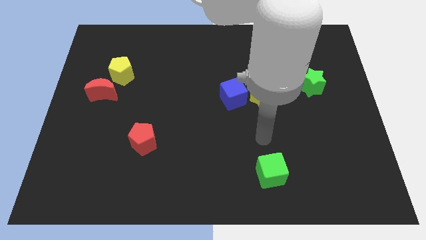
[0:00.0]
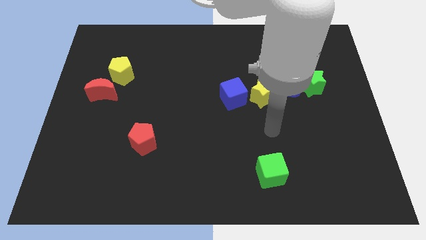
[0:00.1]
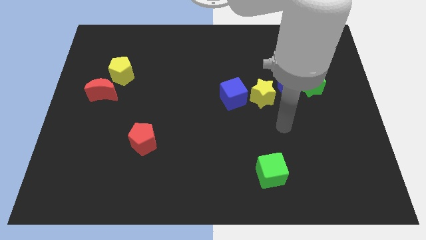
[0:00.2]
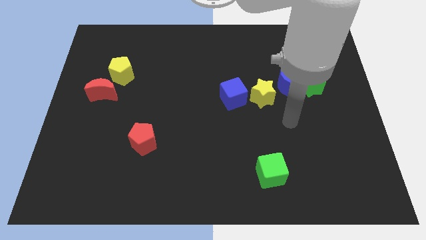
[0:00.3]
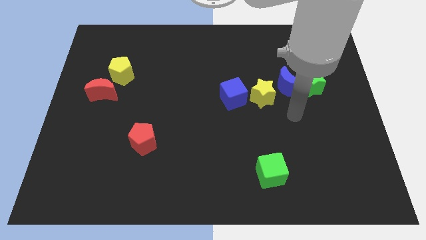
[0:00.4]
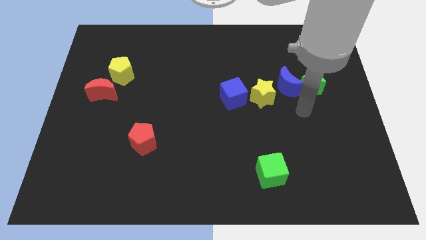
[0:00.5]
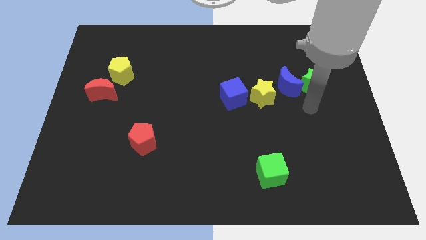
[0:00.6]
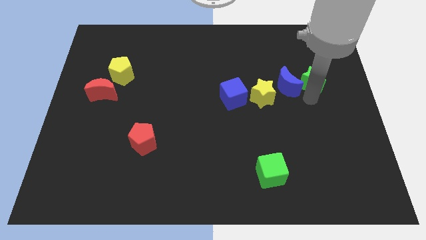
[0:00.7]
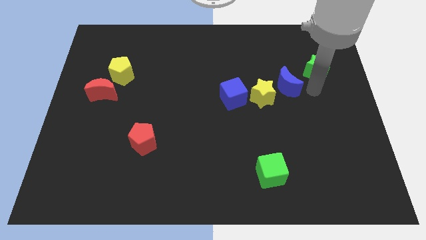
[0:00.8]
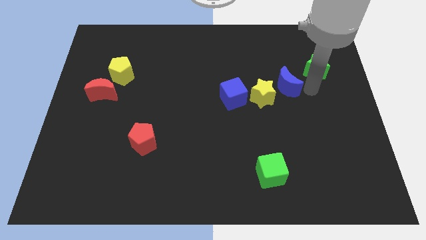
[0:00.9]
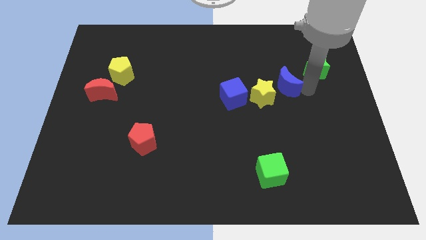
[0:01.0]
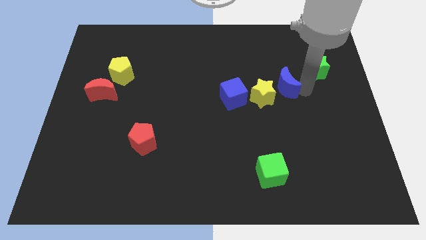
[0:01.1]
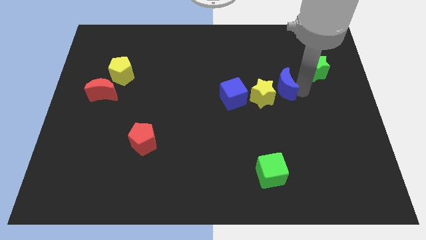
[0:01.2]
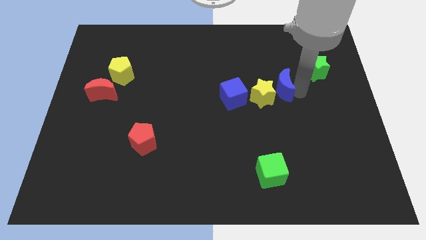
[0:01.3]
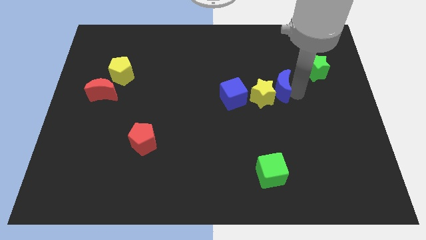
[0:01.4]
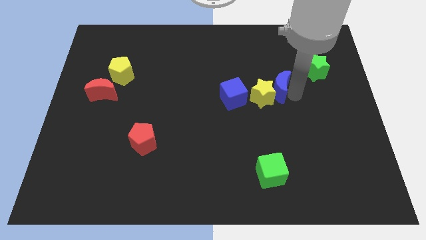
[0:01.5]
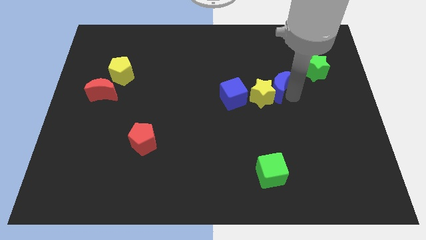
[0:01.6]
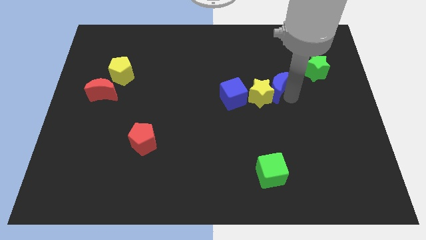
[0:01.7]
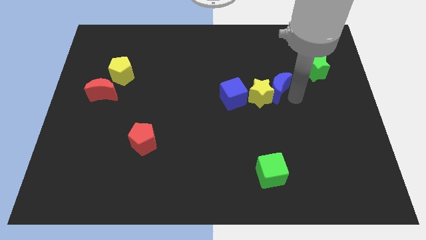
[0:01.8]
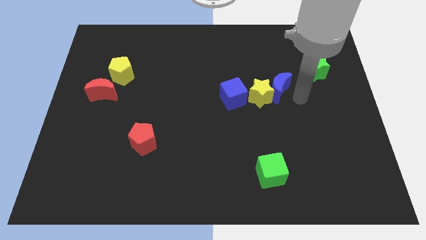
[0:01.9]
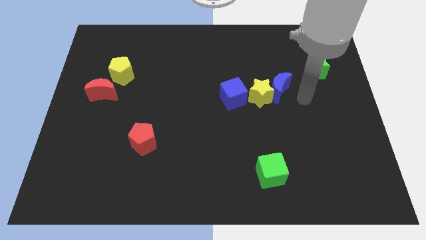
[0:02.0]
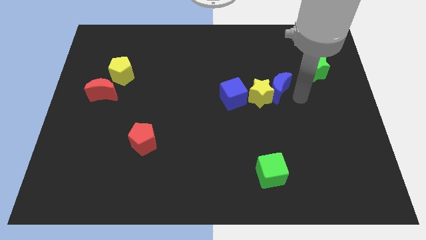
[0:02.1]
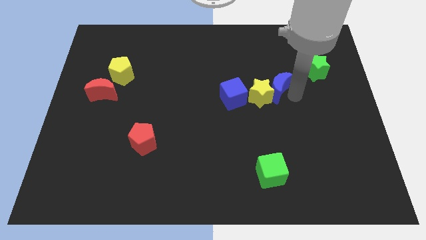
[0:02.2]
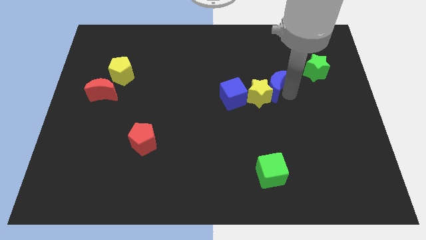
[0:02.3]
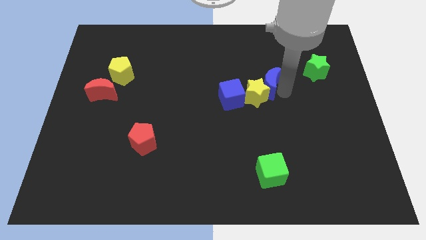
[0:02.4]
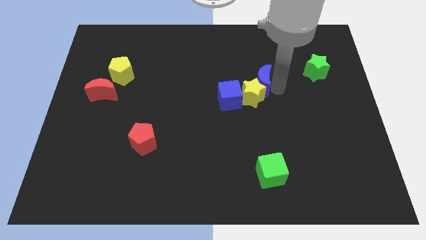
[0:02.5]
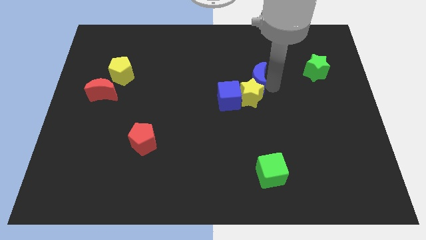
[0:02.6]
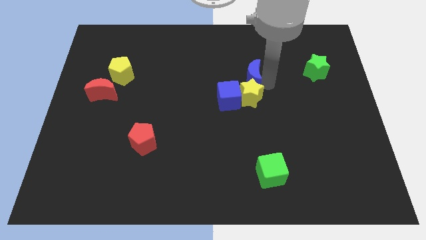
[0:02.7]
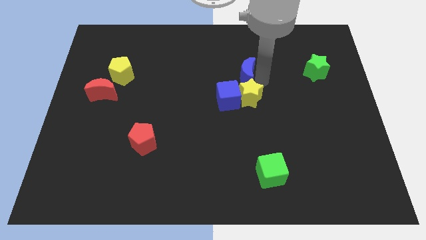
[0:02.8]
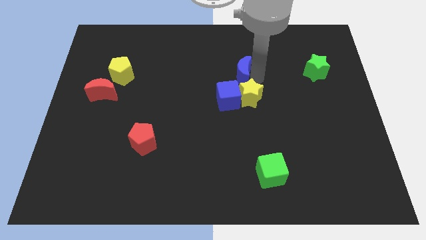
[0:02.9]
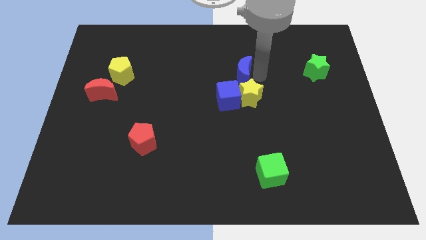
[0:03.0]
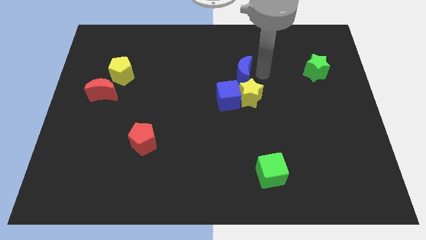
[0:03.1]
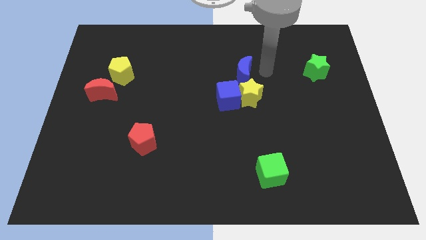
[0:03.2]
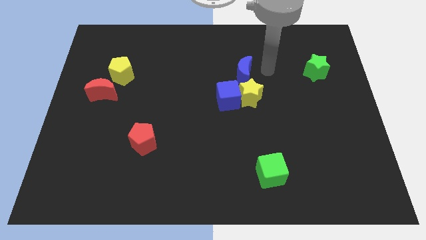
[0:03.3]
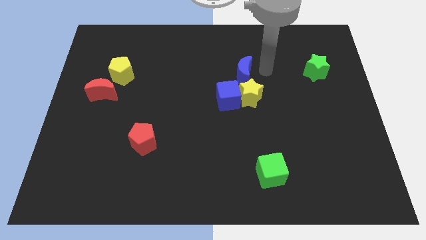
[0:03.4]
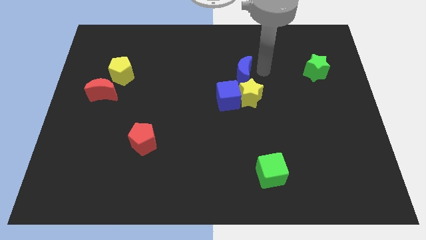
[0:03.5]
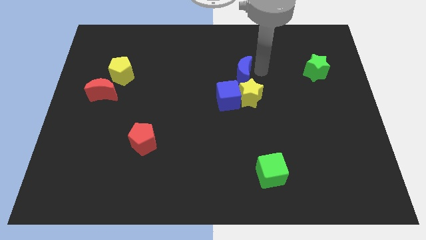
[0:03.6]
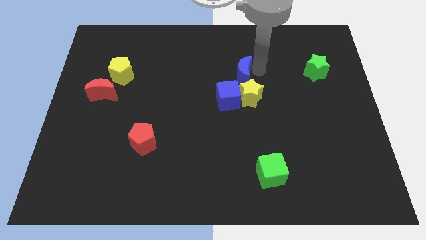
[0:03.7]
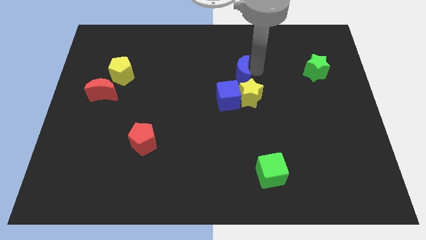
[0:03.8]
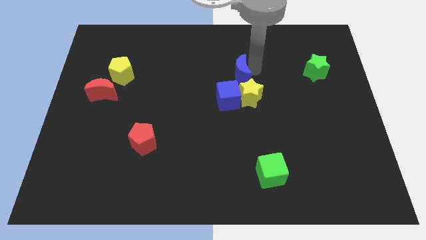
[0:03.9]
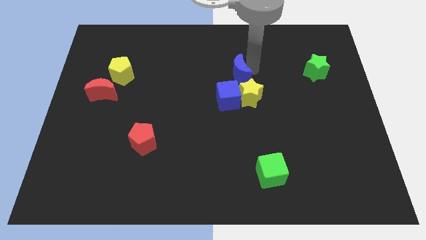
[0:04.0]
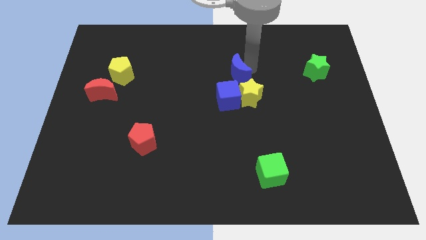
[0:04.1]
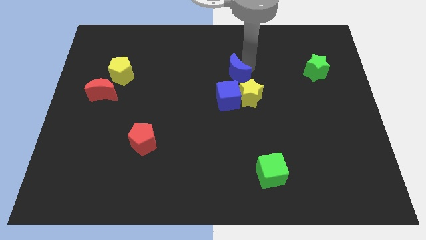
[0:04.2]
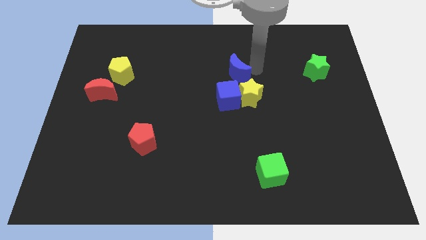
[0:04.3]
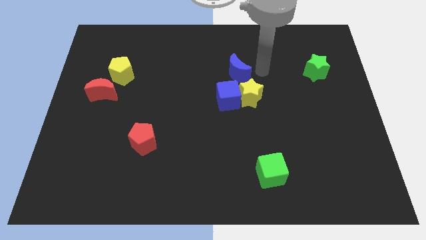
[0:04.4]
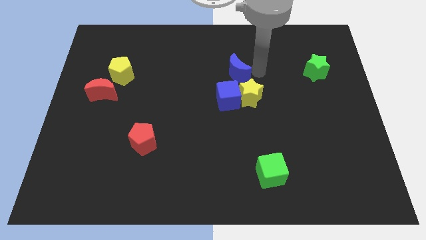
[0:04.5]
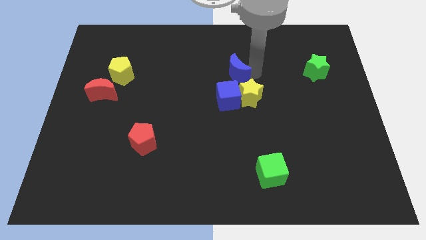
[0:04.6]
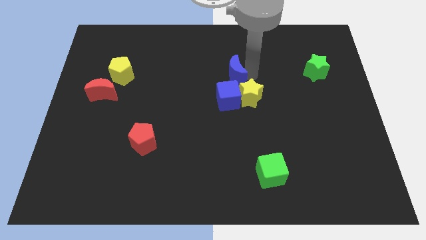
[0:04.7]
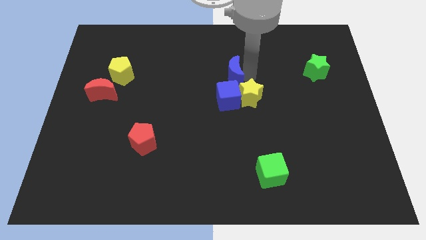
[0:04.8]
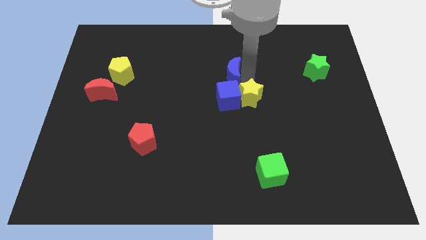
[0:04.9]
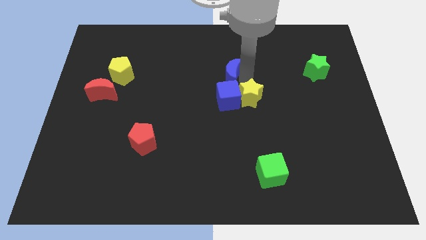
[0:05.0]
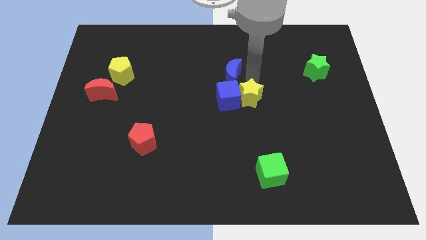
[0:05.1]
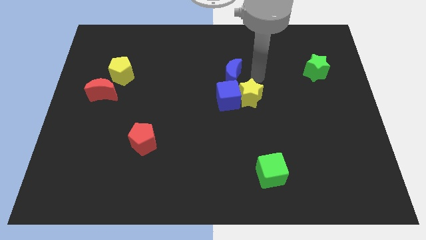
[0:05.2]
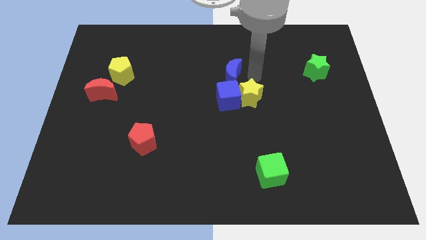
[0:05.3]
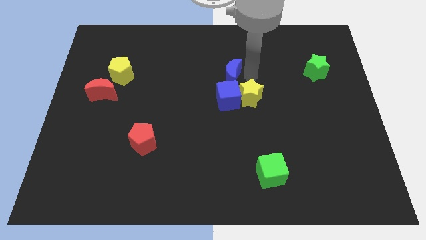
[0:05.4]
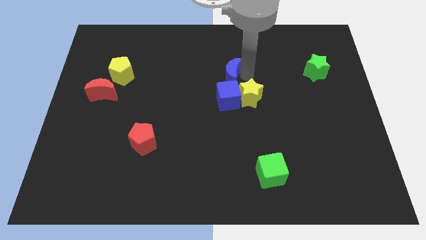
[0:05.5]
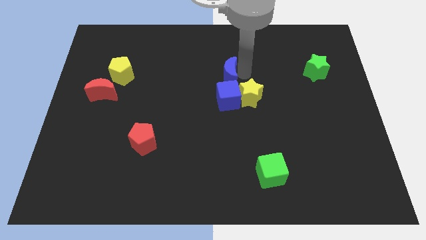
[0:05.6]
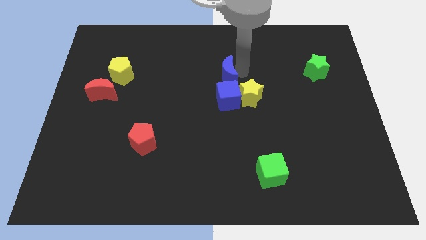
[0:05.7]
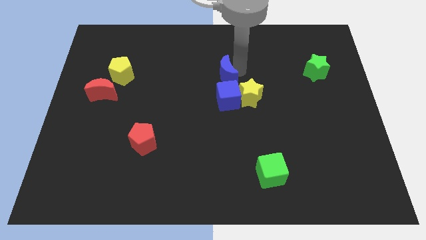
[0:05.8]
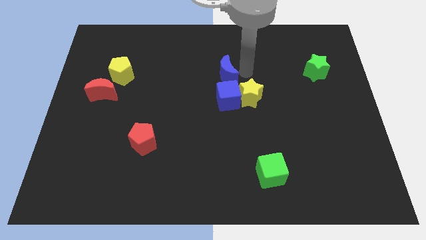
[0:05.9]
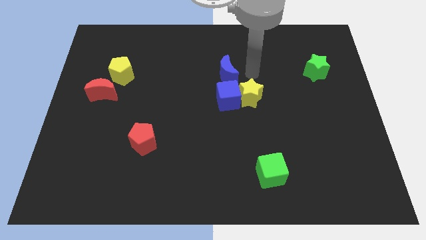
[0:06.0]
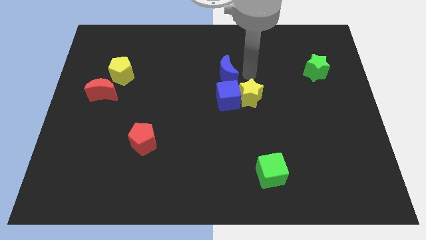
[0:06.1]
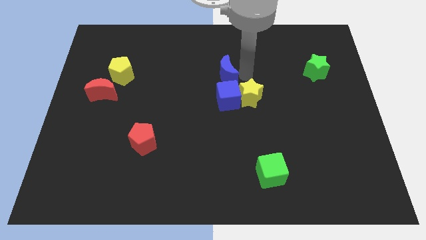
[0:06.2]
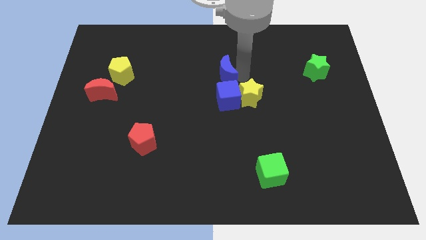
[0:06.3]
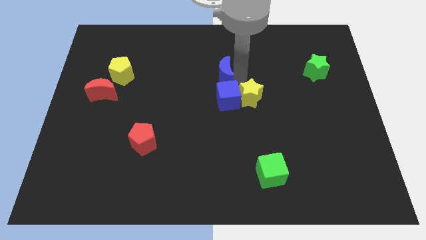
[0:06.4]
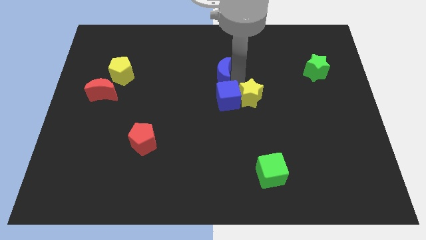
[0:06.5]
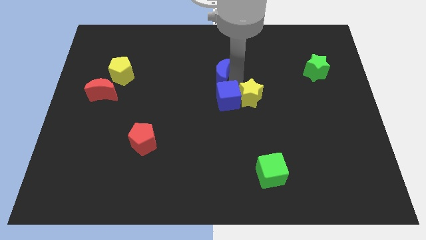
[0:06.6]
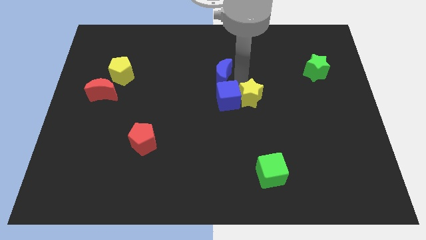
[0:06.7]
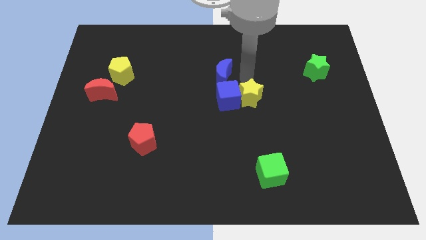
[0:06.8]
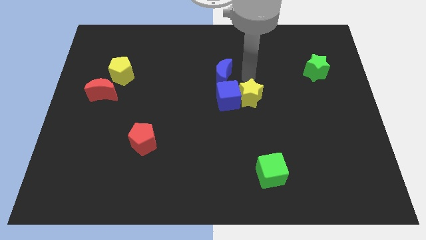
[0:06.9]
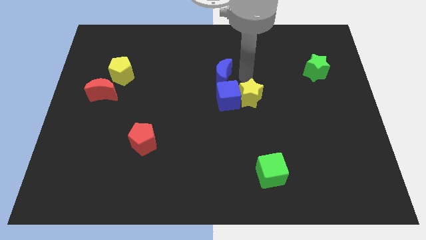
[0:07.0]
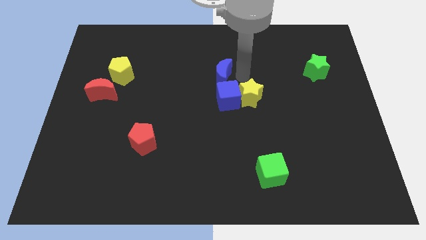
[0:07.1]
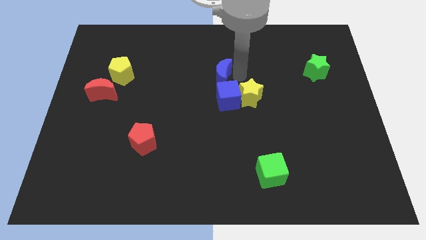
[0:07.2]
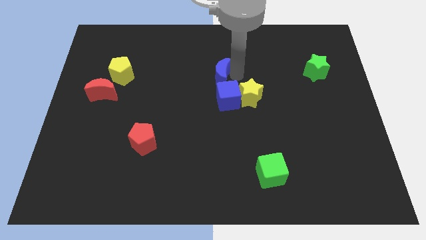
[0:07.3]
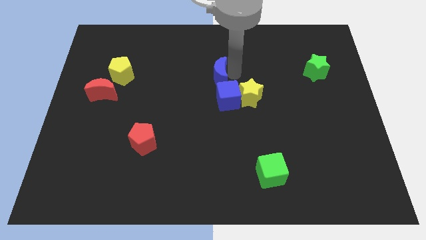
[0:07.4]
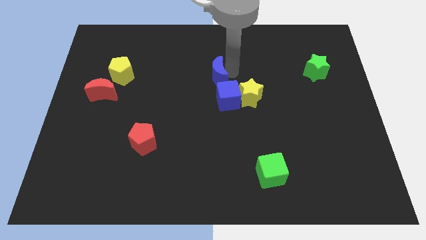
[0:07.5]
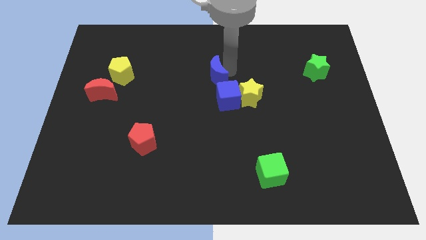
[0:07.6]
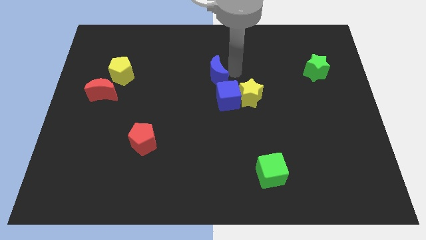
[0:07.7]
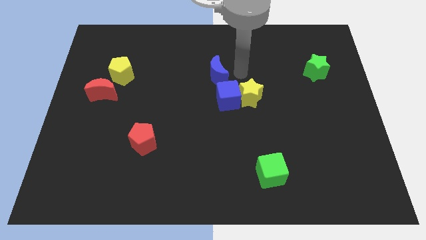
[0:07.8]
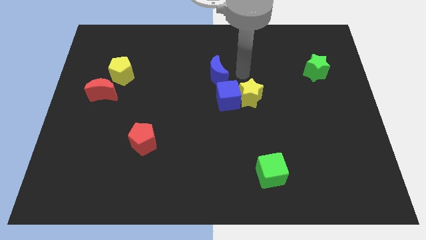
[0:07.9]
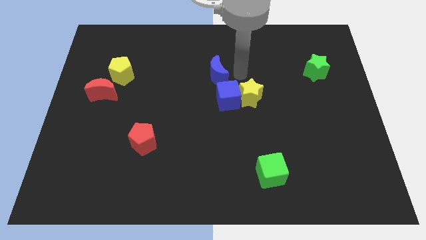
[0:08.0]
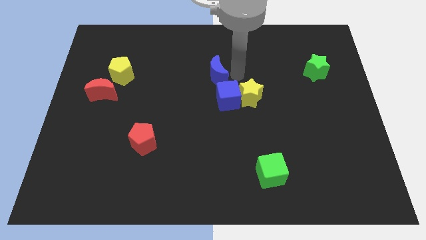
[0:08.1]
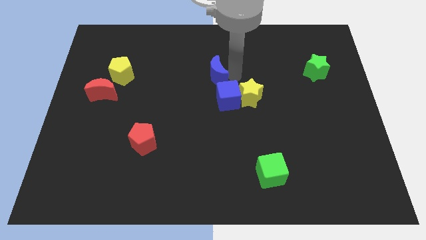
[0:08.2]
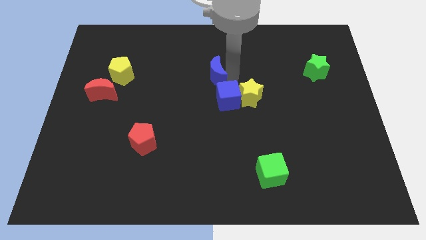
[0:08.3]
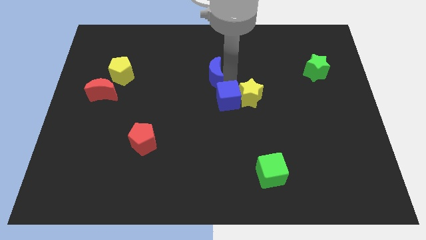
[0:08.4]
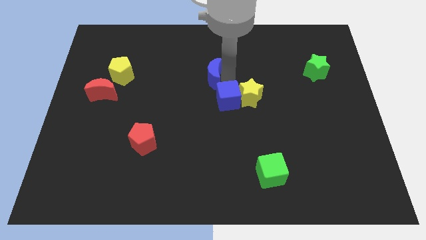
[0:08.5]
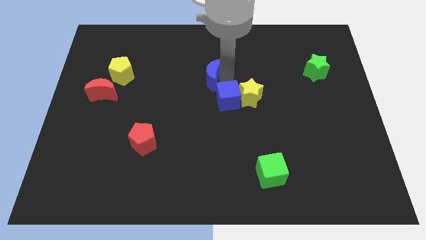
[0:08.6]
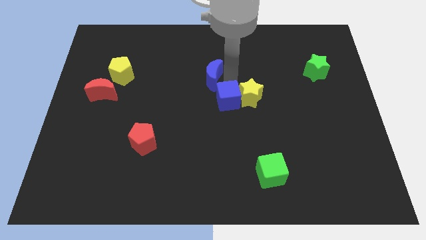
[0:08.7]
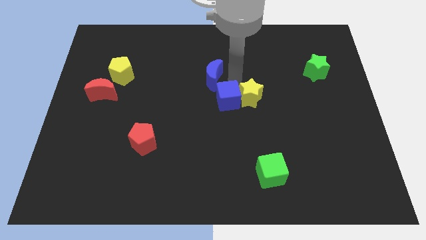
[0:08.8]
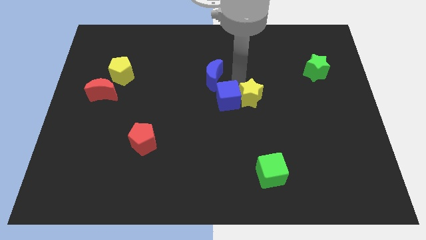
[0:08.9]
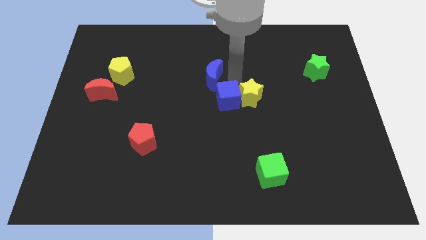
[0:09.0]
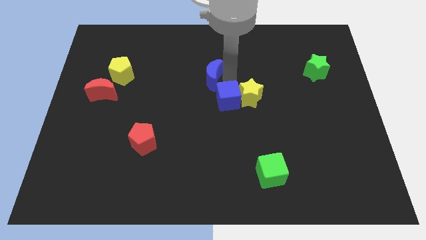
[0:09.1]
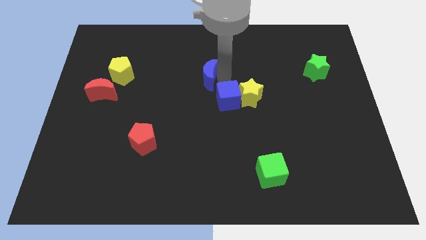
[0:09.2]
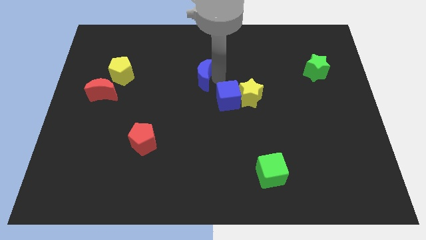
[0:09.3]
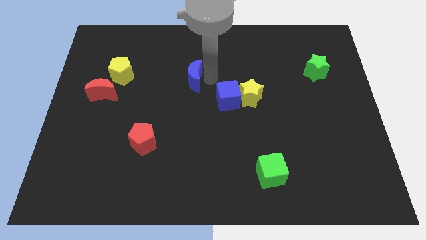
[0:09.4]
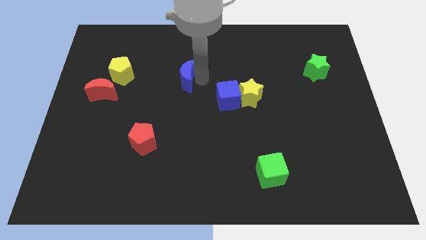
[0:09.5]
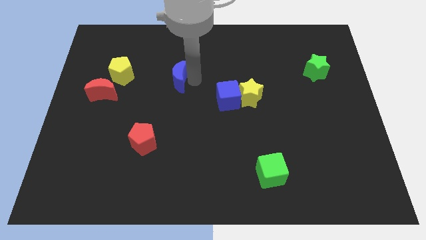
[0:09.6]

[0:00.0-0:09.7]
move the blue moon to the right of the yellow pentagon
